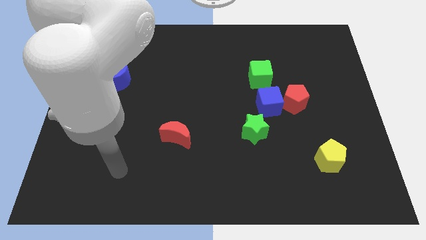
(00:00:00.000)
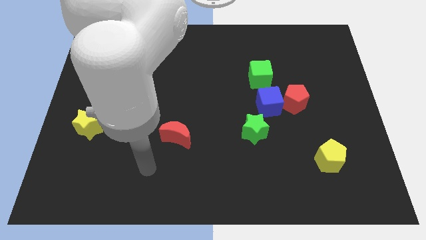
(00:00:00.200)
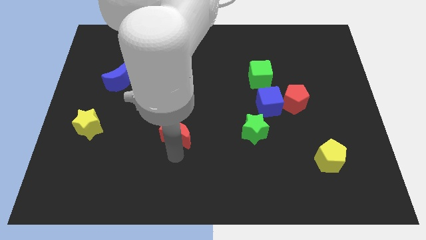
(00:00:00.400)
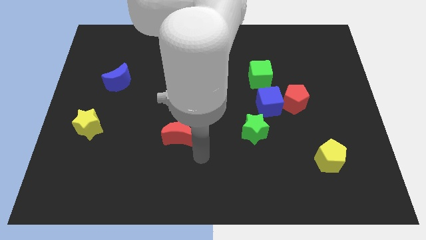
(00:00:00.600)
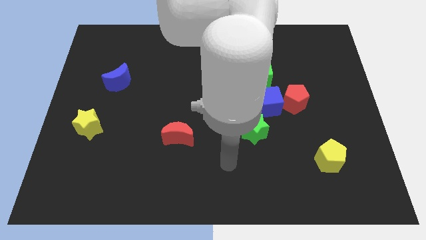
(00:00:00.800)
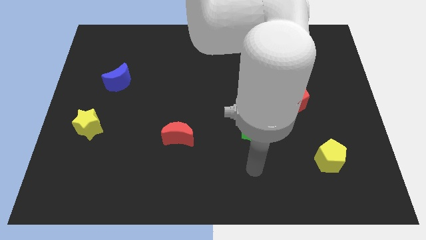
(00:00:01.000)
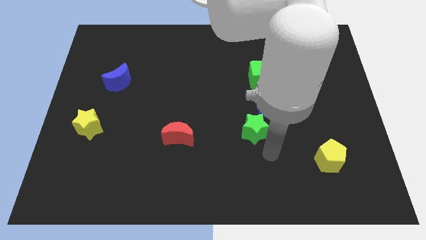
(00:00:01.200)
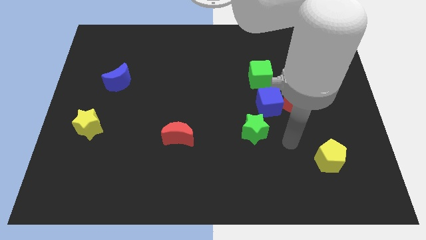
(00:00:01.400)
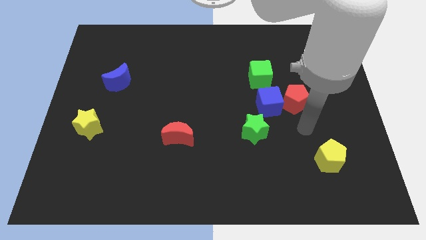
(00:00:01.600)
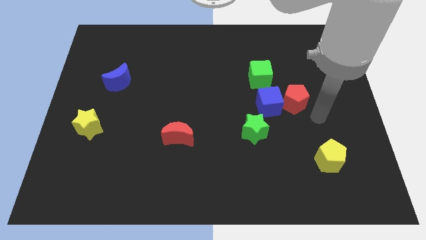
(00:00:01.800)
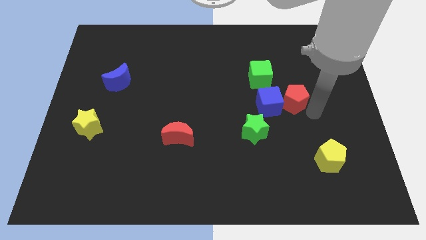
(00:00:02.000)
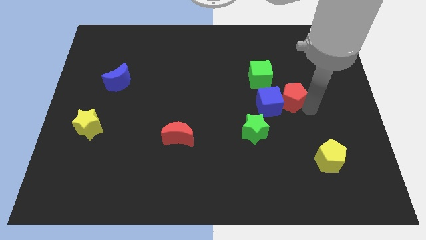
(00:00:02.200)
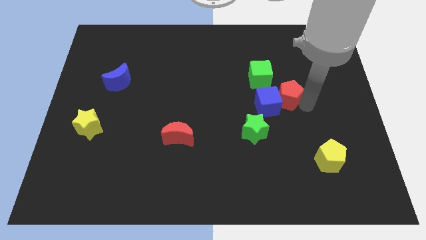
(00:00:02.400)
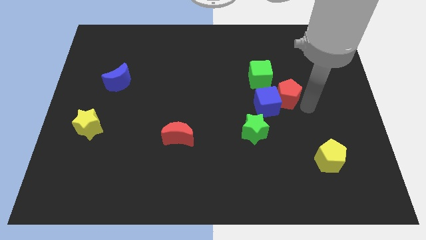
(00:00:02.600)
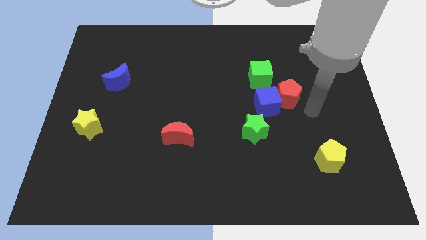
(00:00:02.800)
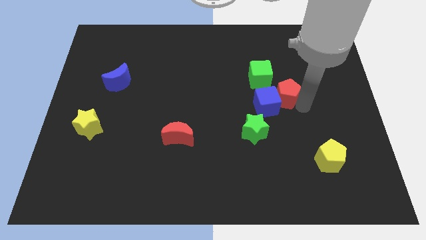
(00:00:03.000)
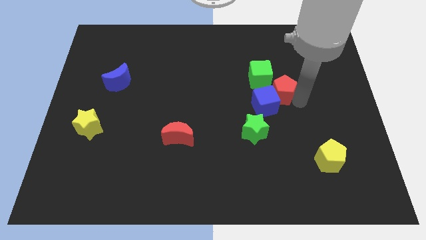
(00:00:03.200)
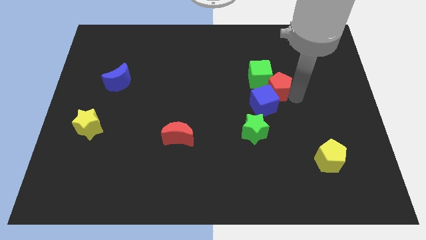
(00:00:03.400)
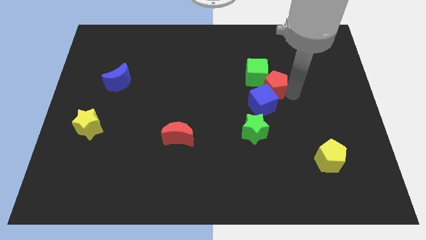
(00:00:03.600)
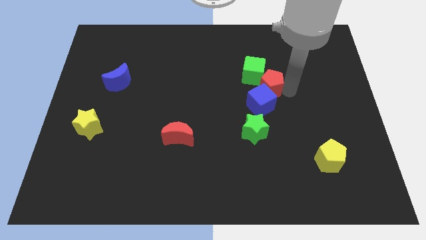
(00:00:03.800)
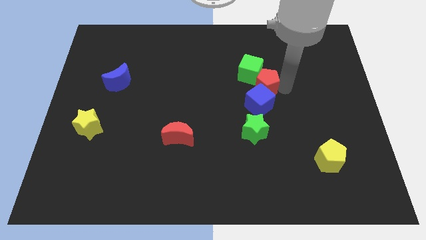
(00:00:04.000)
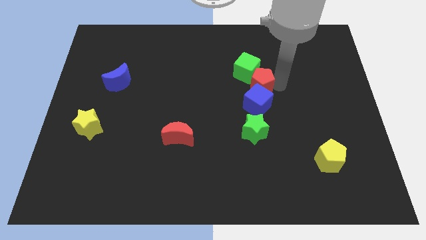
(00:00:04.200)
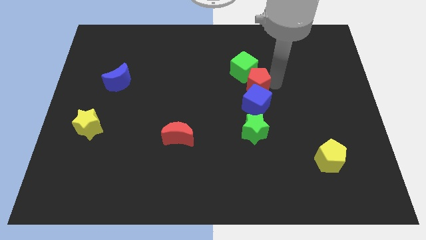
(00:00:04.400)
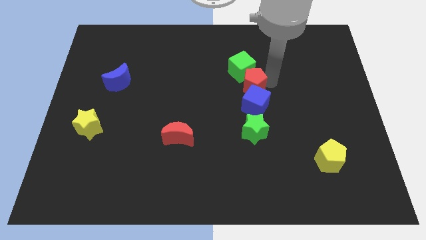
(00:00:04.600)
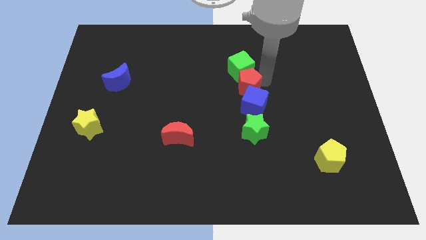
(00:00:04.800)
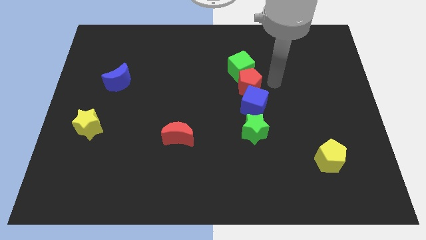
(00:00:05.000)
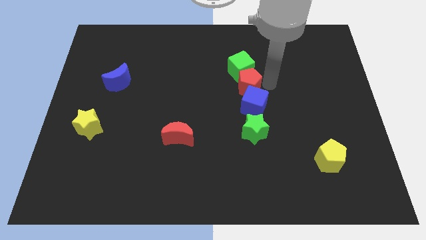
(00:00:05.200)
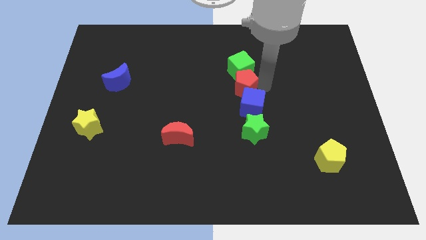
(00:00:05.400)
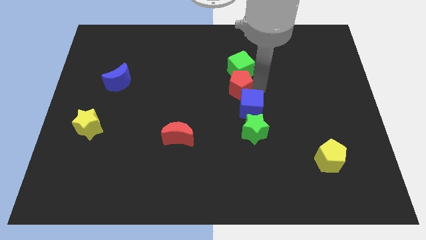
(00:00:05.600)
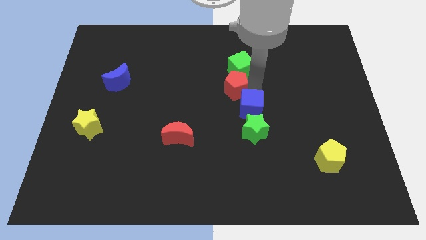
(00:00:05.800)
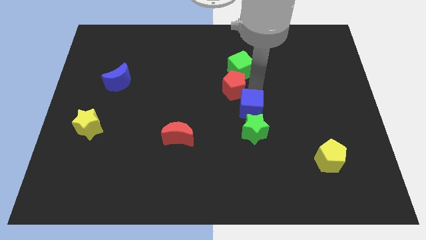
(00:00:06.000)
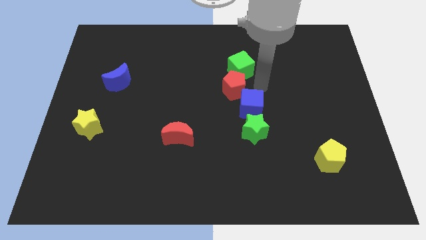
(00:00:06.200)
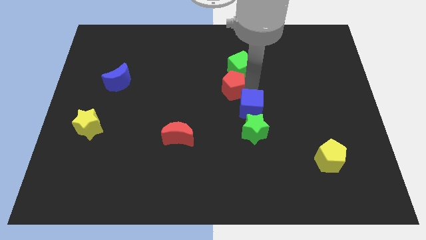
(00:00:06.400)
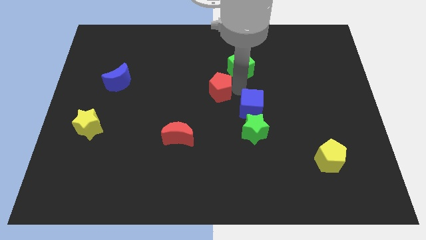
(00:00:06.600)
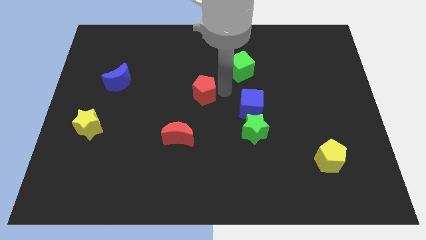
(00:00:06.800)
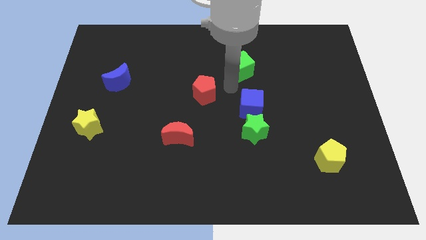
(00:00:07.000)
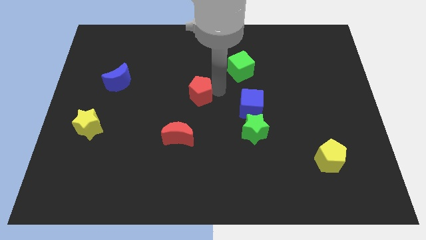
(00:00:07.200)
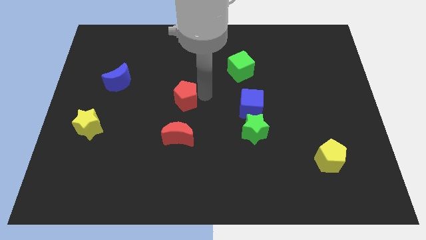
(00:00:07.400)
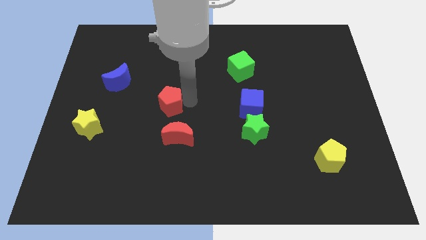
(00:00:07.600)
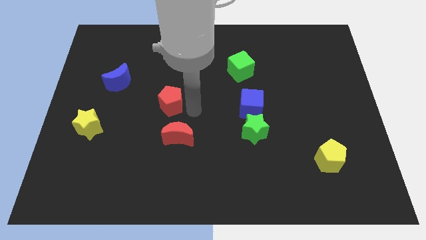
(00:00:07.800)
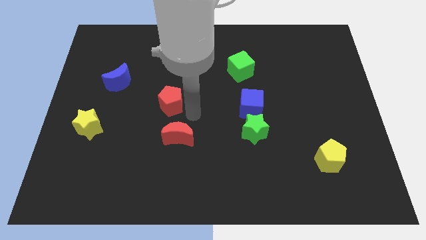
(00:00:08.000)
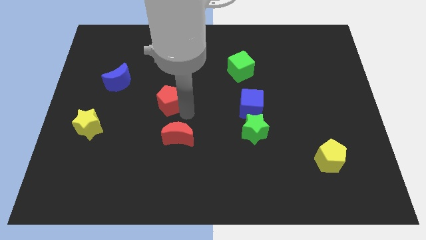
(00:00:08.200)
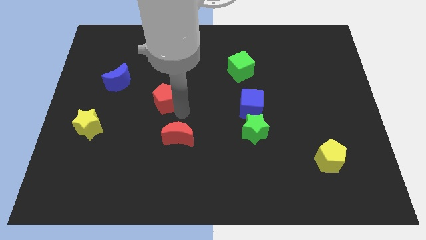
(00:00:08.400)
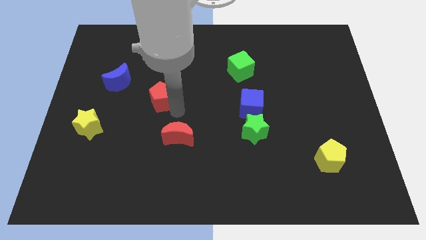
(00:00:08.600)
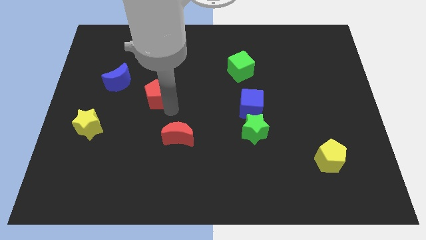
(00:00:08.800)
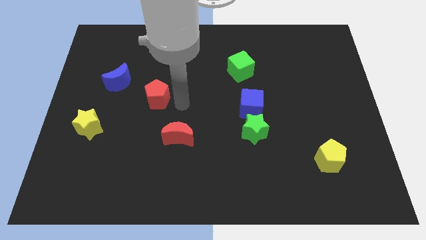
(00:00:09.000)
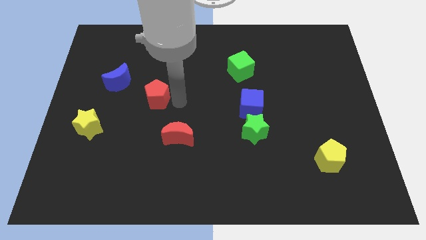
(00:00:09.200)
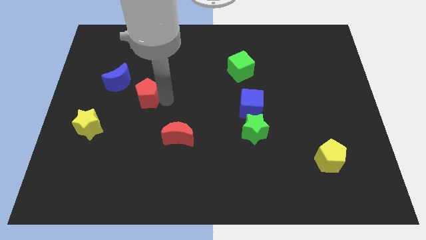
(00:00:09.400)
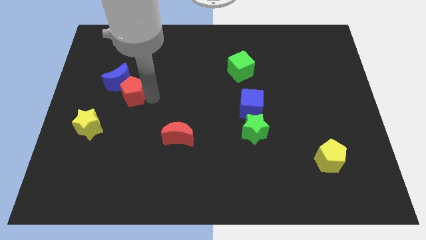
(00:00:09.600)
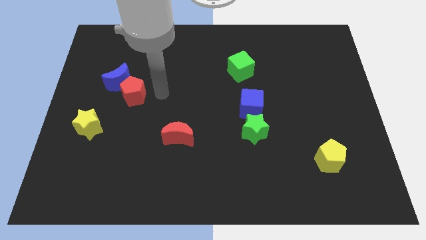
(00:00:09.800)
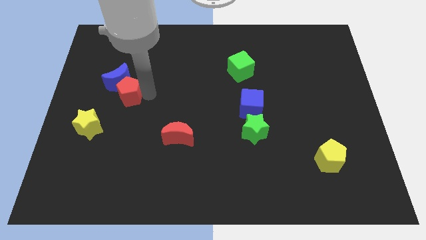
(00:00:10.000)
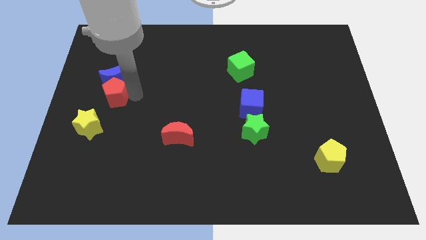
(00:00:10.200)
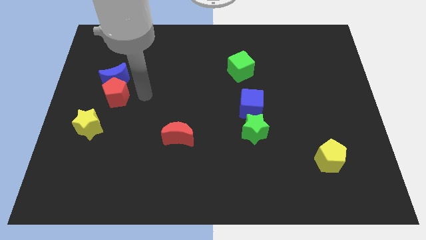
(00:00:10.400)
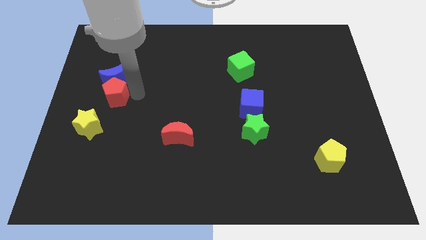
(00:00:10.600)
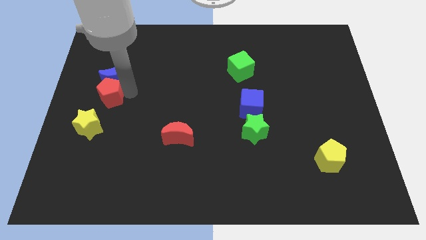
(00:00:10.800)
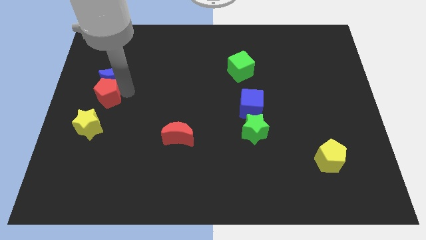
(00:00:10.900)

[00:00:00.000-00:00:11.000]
slide the red pentagon to the left side

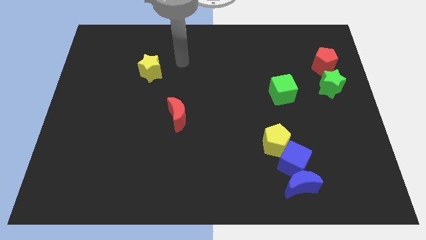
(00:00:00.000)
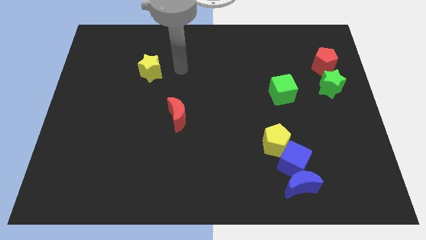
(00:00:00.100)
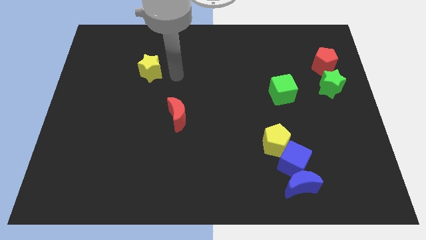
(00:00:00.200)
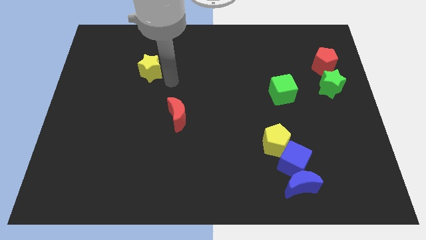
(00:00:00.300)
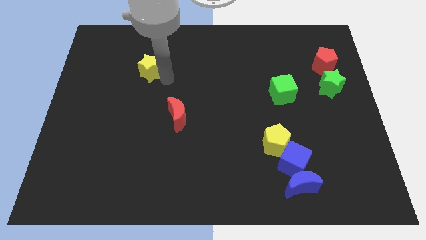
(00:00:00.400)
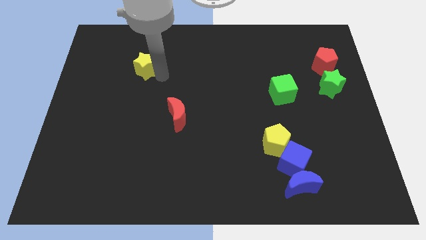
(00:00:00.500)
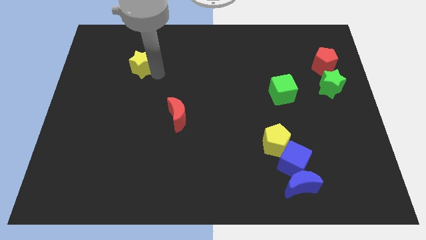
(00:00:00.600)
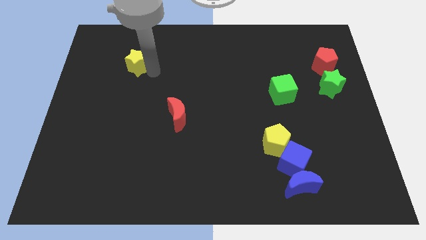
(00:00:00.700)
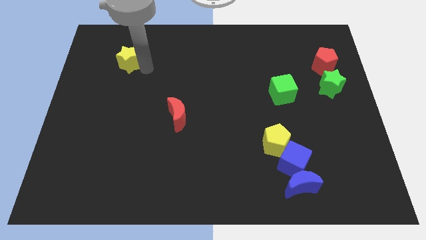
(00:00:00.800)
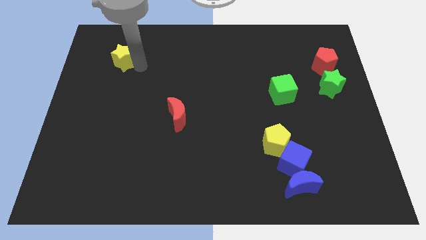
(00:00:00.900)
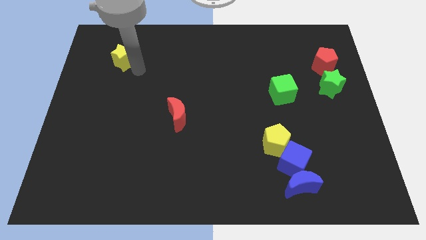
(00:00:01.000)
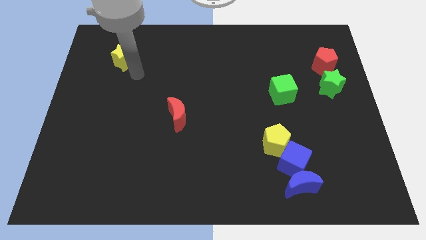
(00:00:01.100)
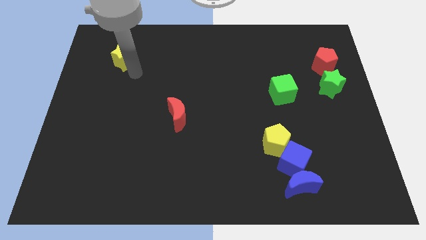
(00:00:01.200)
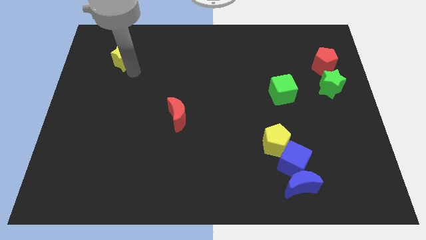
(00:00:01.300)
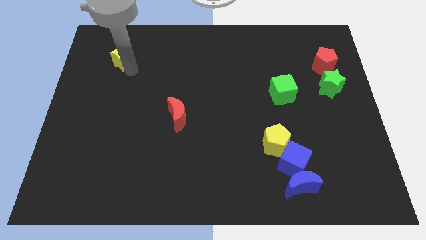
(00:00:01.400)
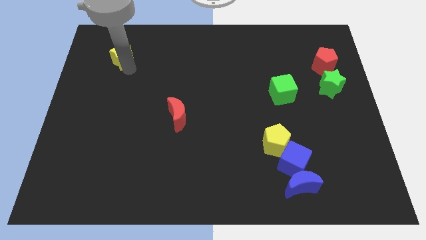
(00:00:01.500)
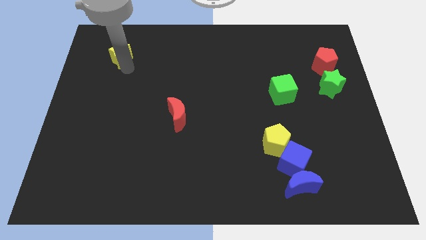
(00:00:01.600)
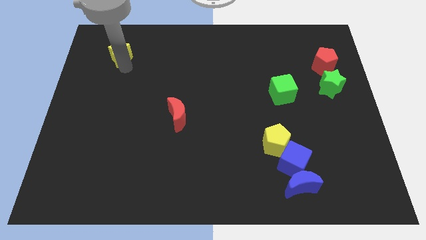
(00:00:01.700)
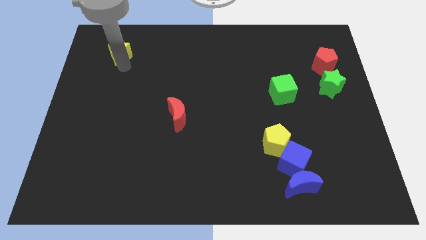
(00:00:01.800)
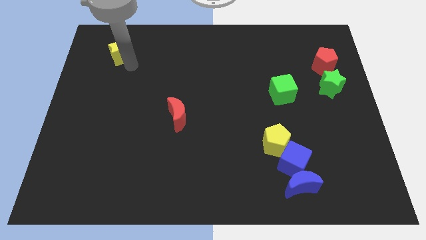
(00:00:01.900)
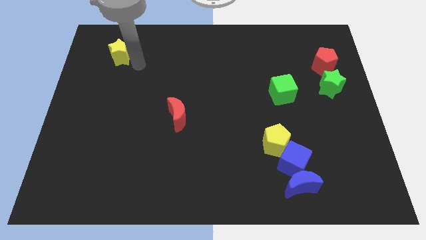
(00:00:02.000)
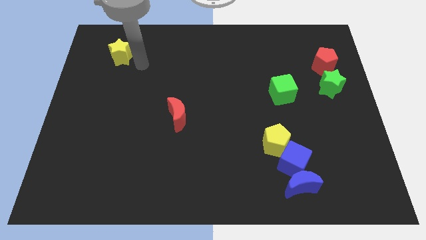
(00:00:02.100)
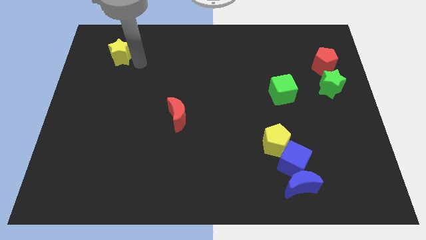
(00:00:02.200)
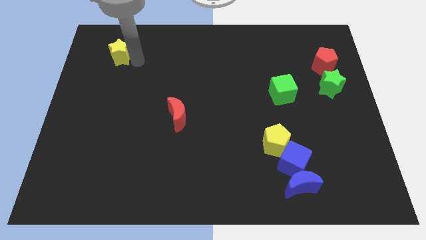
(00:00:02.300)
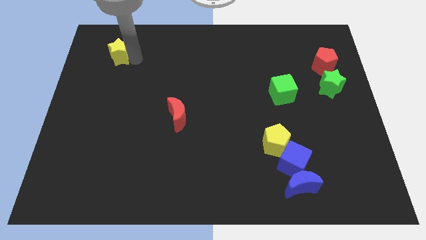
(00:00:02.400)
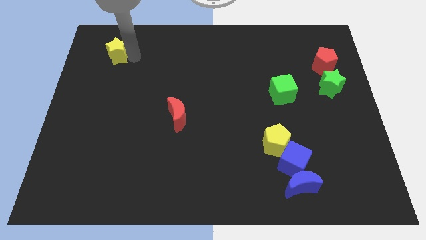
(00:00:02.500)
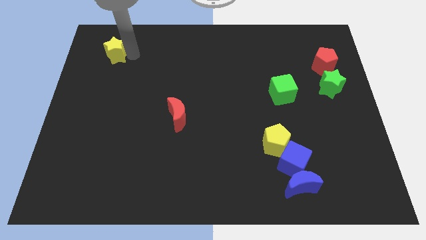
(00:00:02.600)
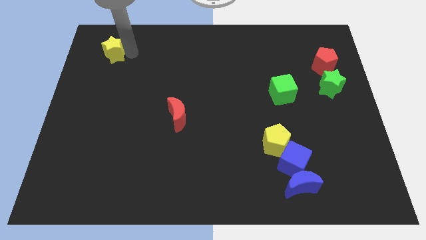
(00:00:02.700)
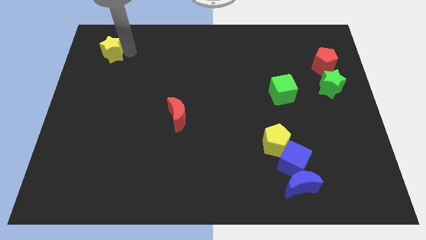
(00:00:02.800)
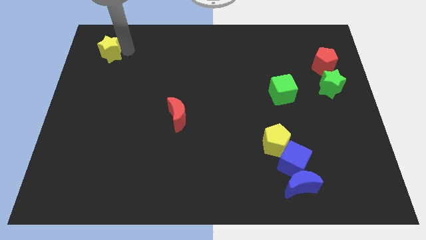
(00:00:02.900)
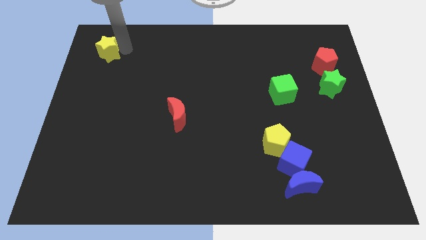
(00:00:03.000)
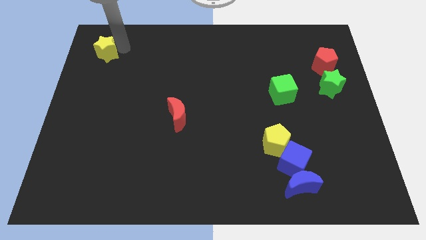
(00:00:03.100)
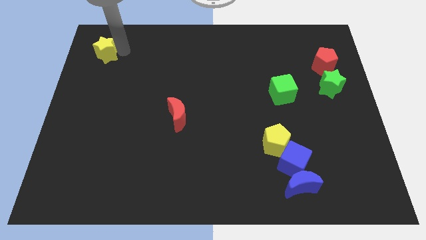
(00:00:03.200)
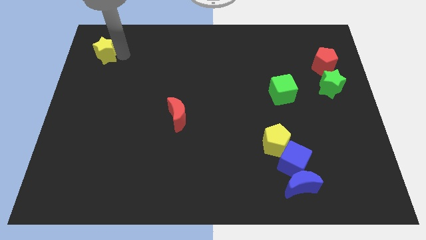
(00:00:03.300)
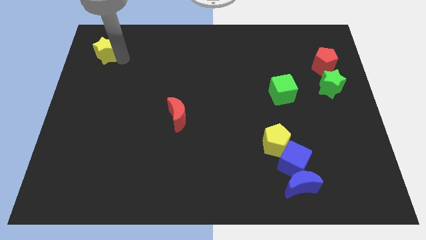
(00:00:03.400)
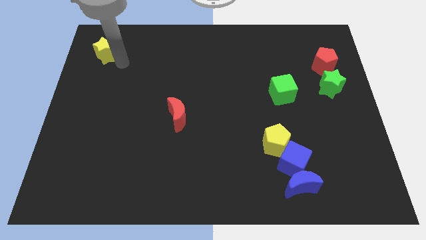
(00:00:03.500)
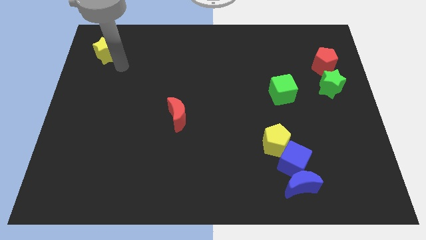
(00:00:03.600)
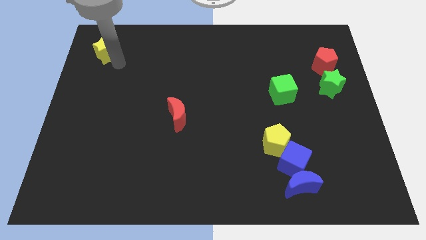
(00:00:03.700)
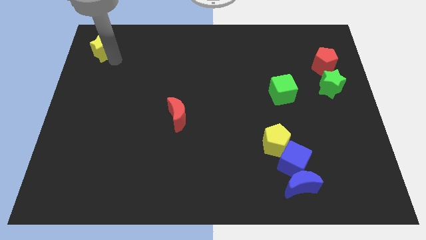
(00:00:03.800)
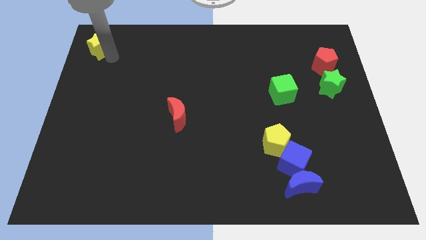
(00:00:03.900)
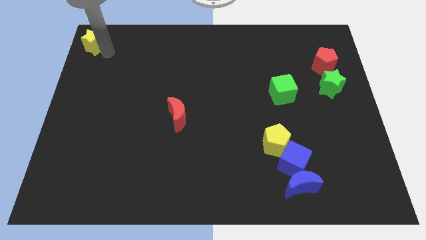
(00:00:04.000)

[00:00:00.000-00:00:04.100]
move the yellow star to the upper left corner
